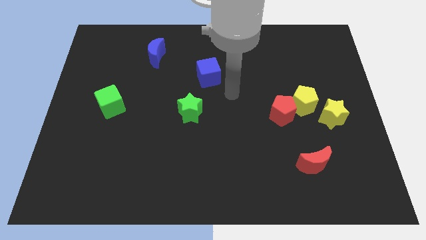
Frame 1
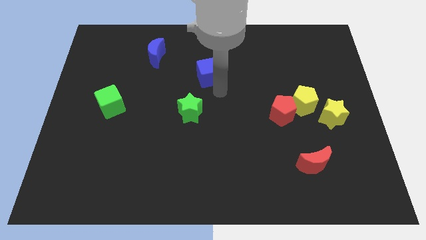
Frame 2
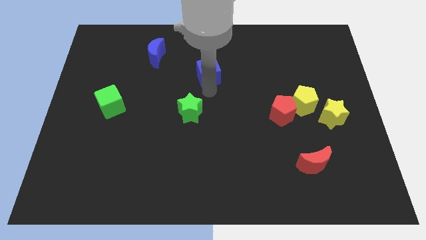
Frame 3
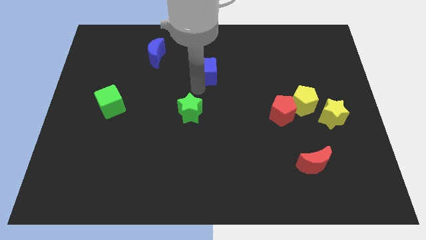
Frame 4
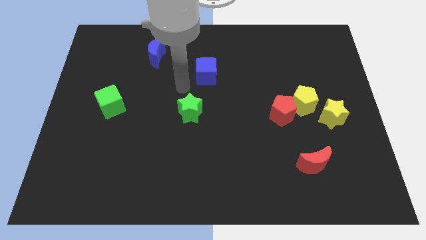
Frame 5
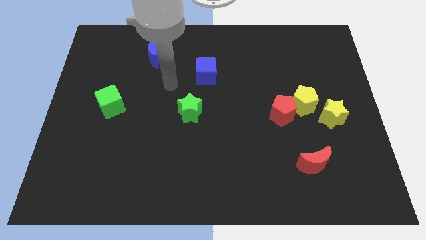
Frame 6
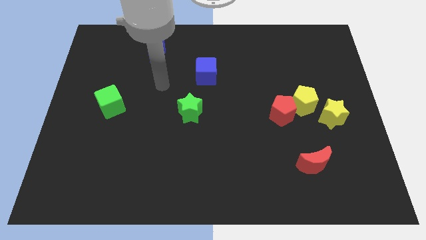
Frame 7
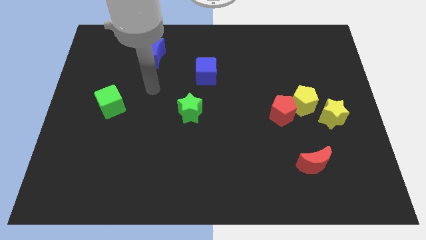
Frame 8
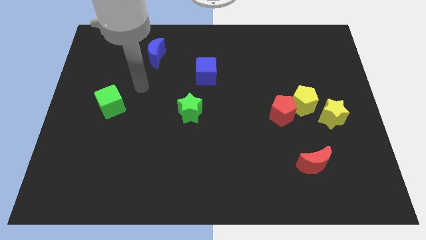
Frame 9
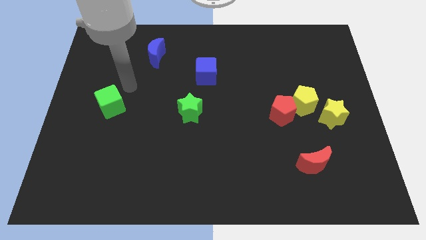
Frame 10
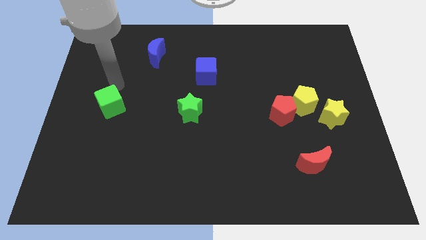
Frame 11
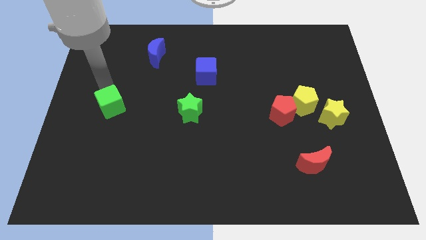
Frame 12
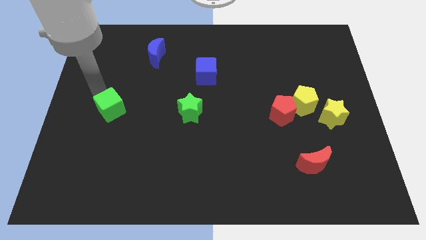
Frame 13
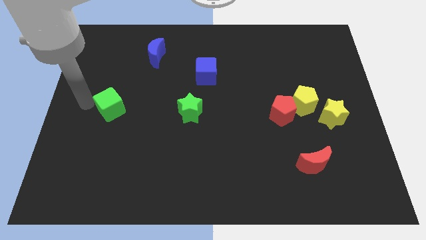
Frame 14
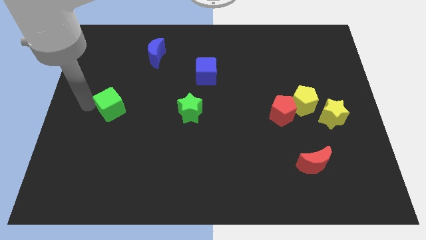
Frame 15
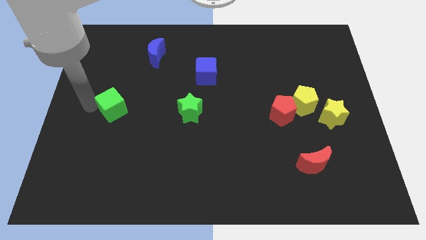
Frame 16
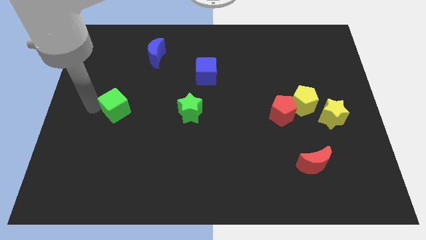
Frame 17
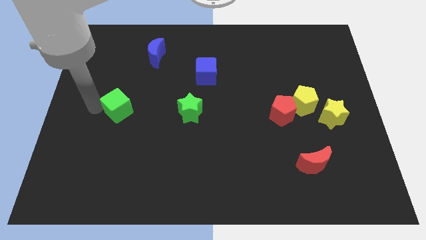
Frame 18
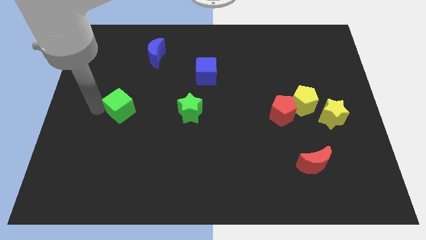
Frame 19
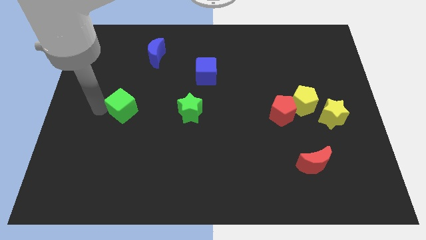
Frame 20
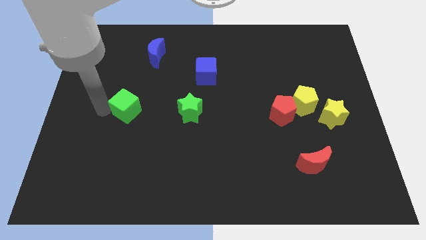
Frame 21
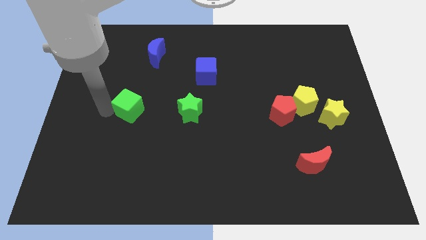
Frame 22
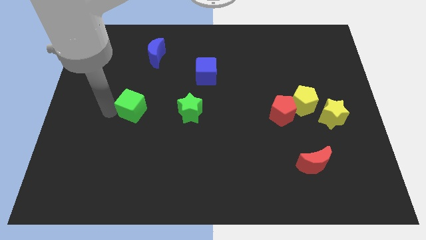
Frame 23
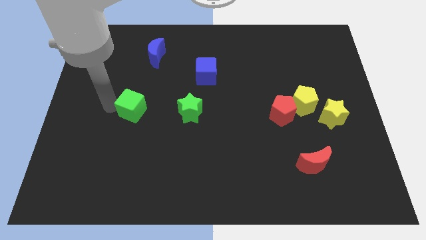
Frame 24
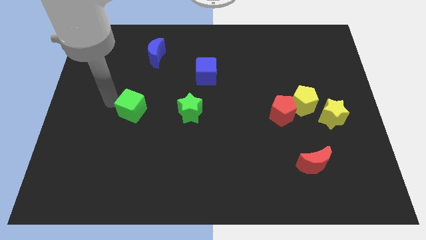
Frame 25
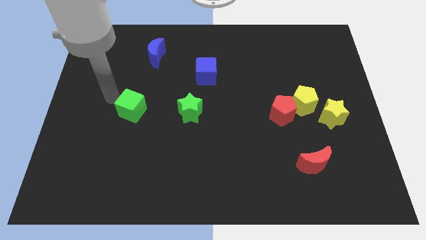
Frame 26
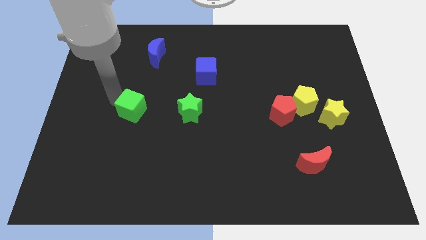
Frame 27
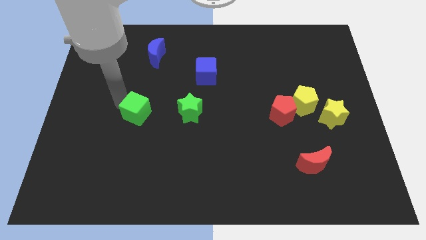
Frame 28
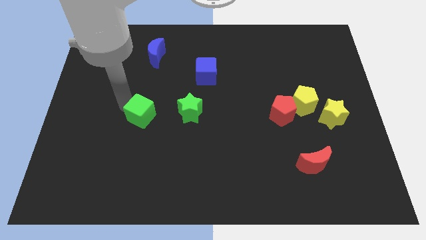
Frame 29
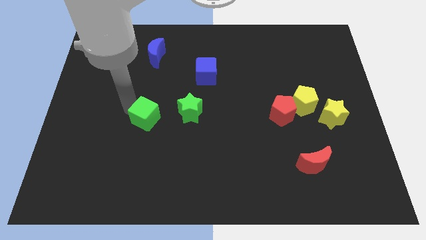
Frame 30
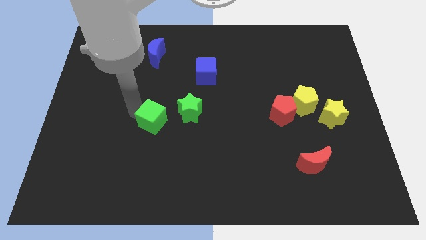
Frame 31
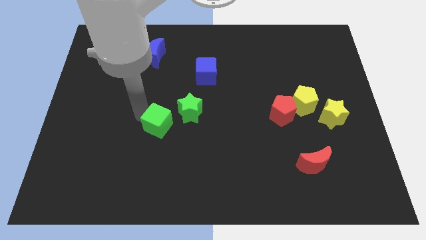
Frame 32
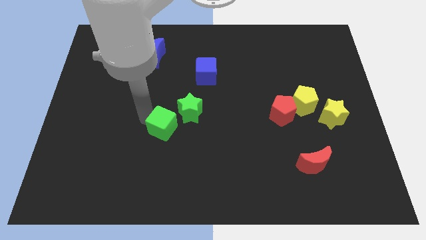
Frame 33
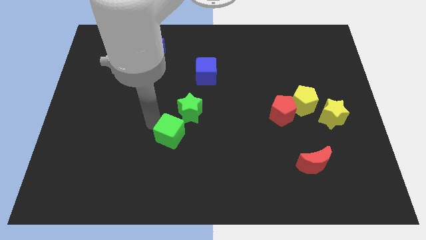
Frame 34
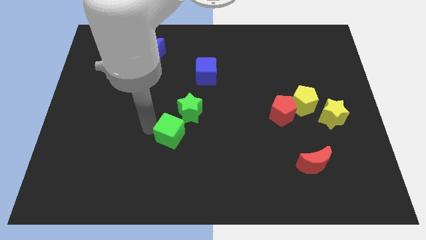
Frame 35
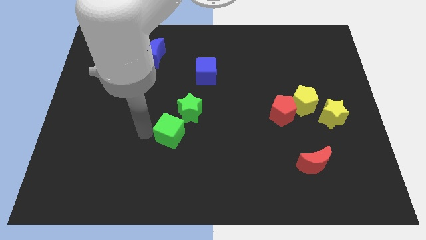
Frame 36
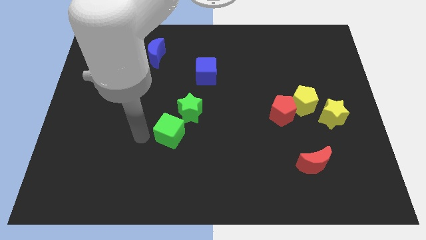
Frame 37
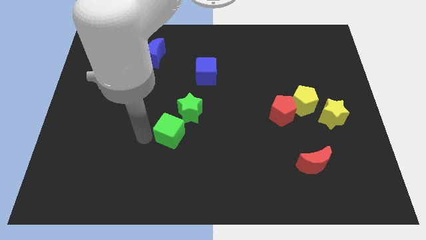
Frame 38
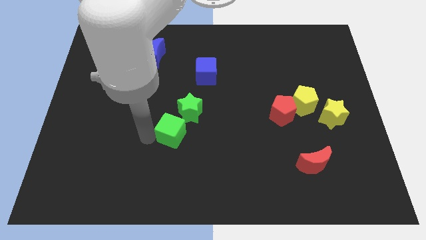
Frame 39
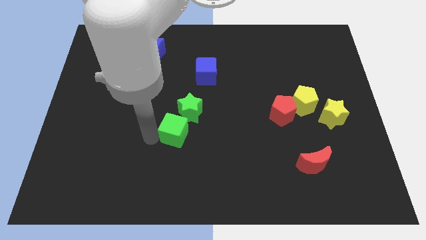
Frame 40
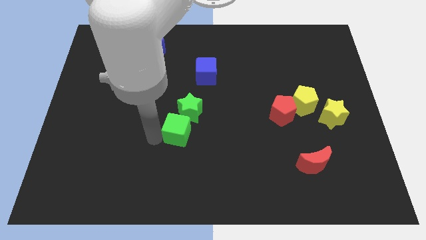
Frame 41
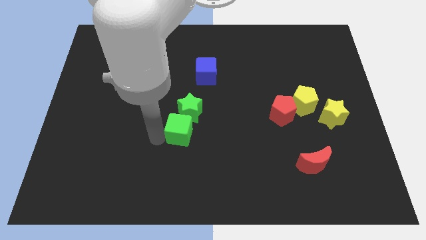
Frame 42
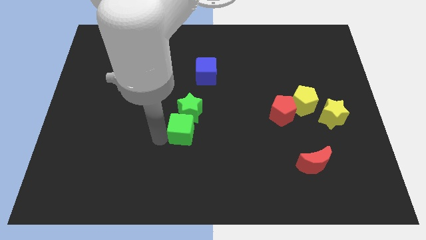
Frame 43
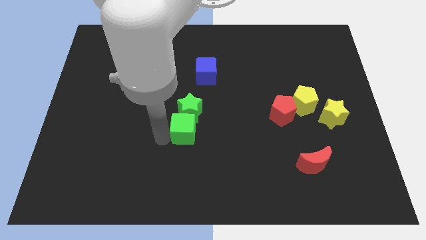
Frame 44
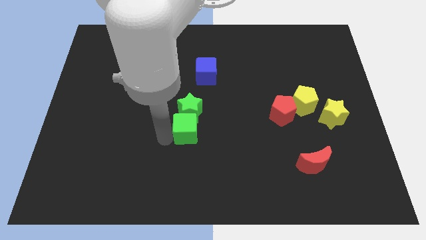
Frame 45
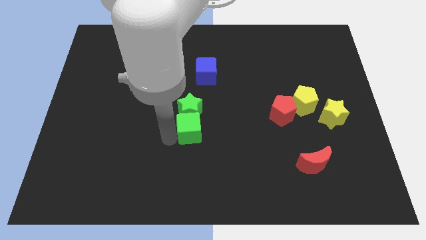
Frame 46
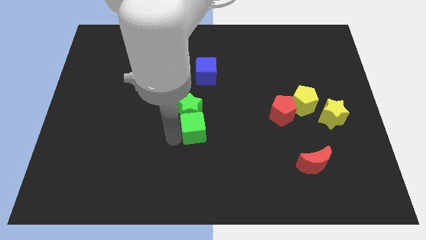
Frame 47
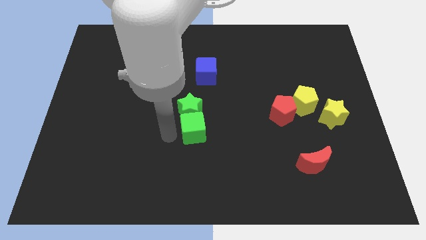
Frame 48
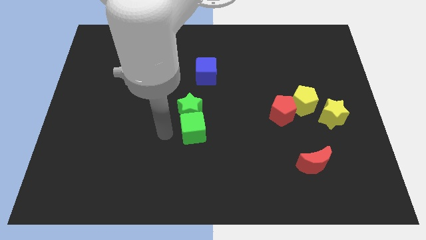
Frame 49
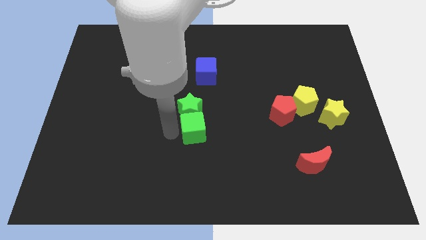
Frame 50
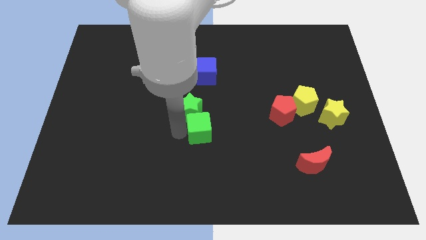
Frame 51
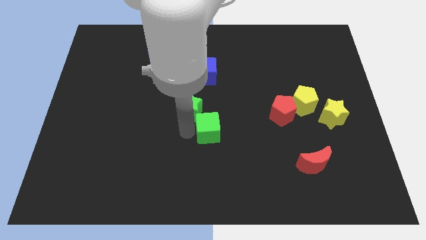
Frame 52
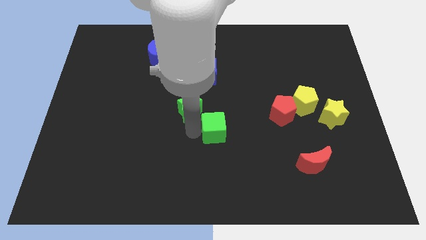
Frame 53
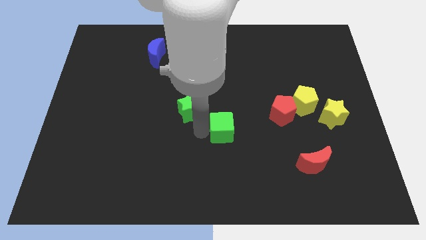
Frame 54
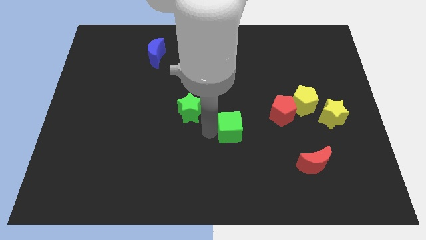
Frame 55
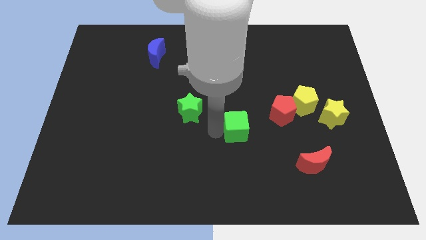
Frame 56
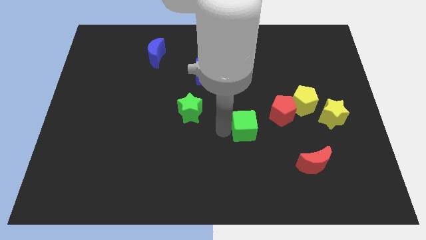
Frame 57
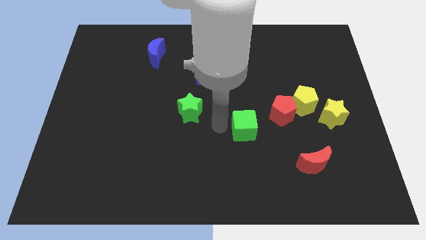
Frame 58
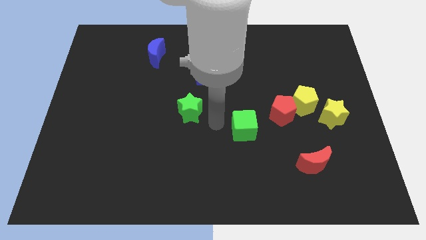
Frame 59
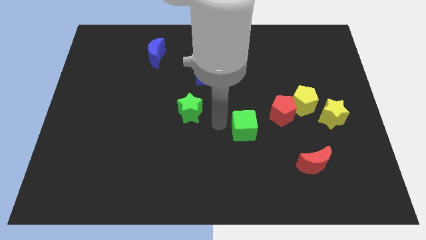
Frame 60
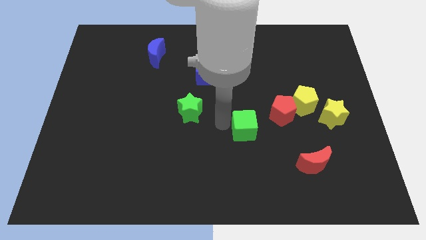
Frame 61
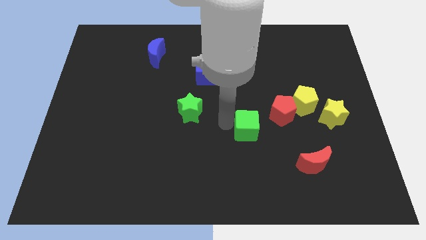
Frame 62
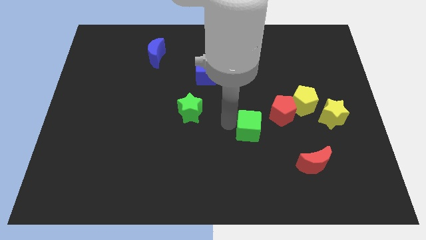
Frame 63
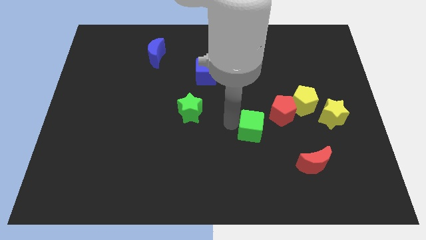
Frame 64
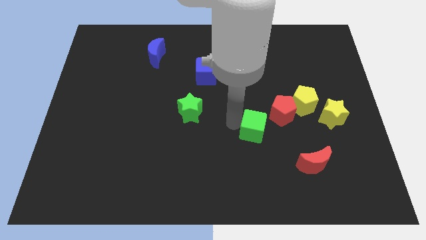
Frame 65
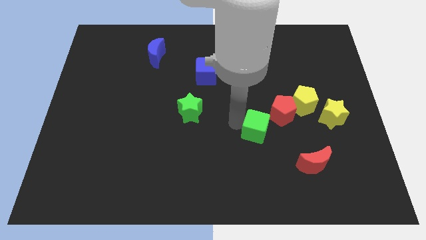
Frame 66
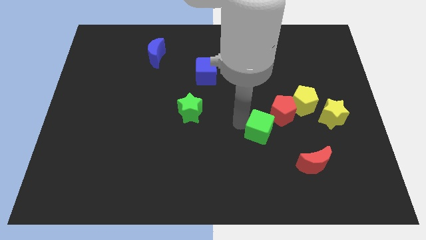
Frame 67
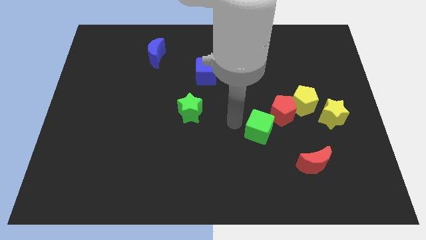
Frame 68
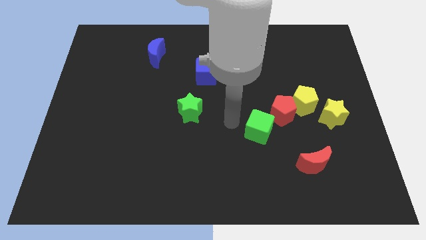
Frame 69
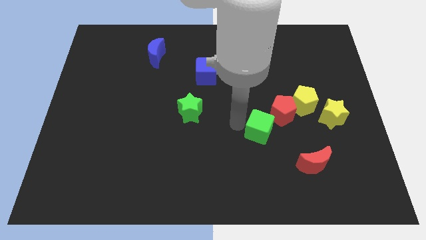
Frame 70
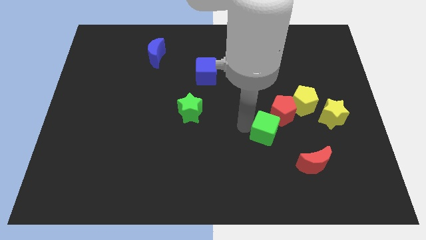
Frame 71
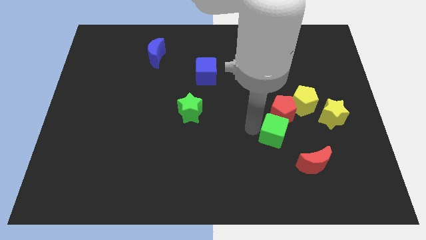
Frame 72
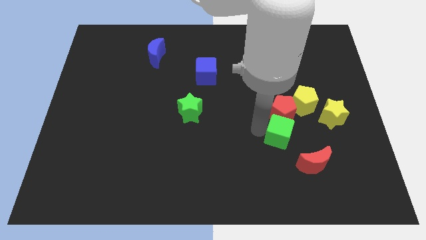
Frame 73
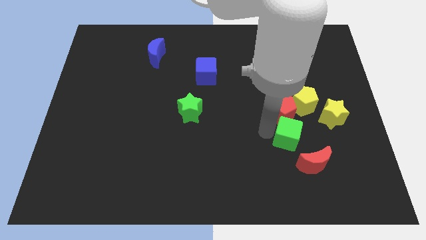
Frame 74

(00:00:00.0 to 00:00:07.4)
move the green cube below the yellow pentagon
